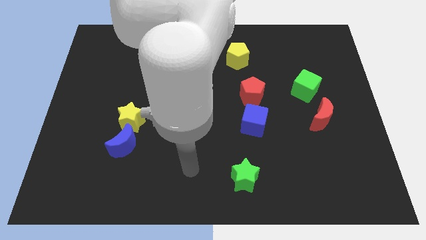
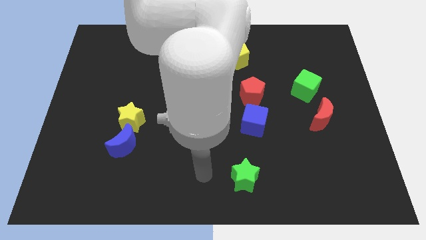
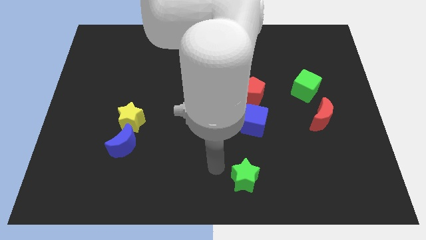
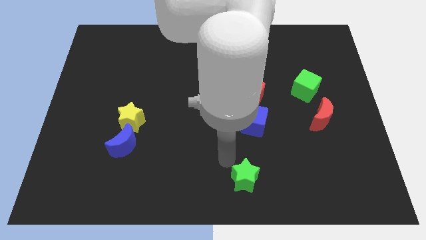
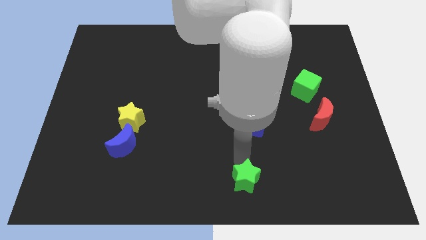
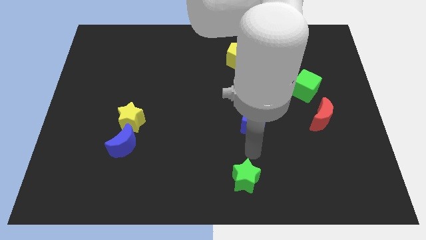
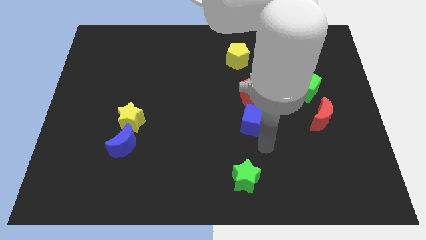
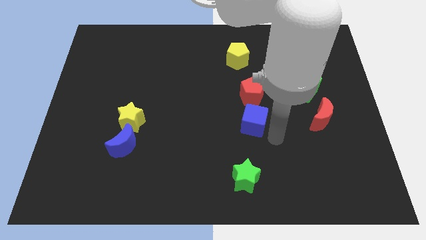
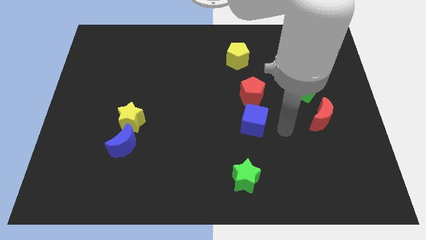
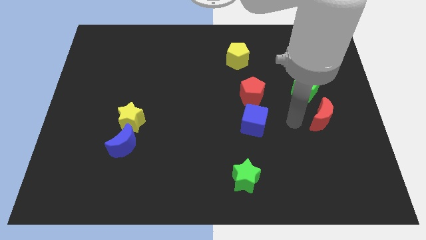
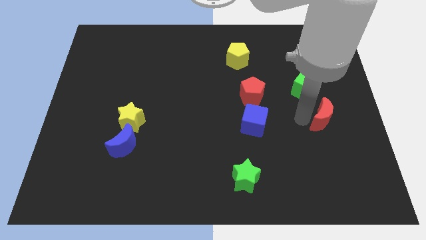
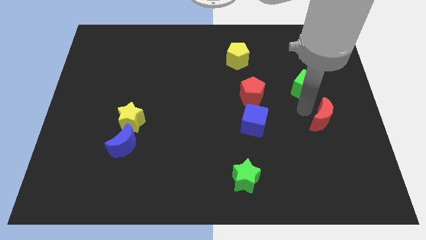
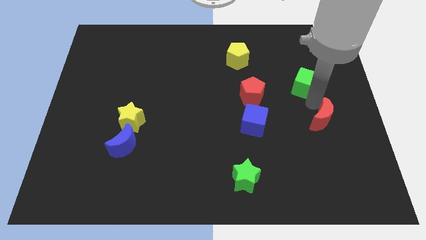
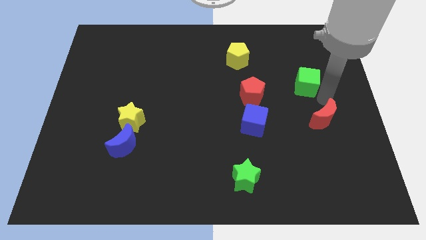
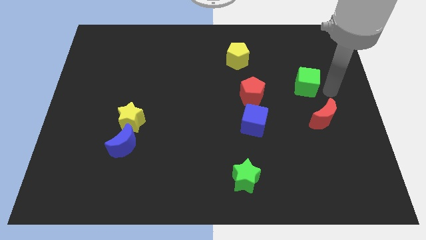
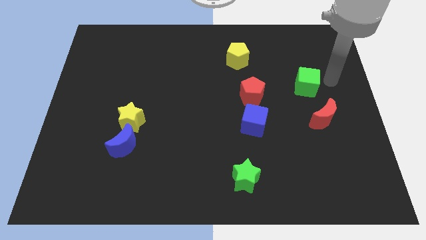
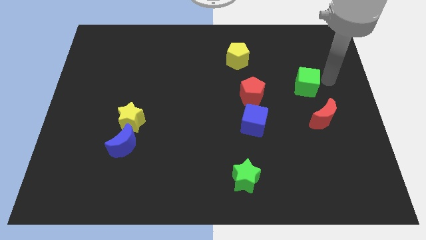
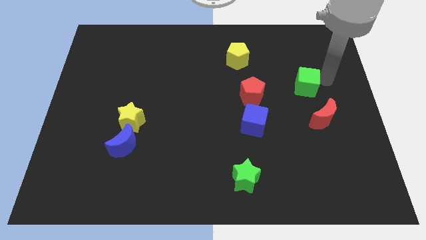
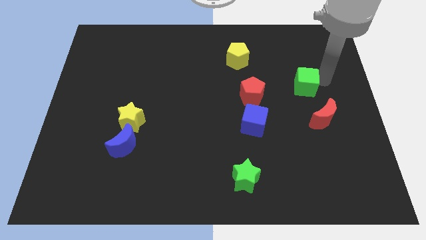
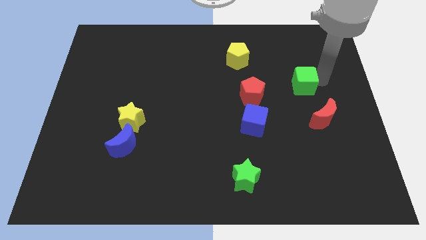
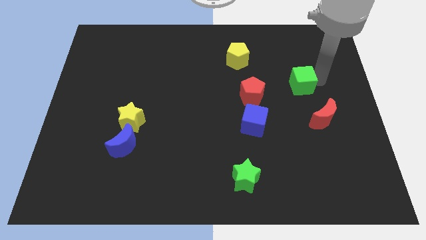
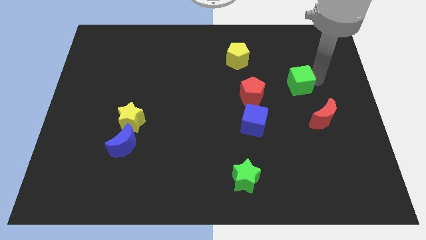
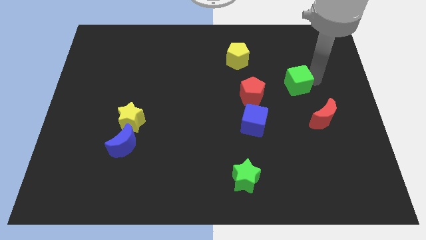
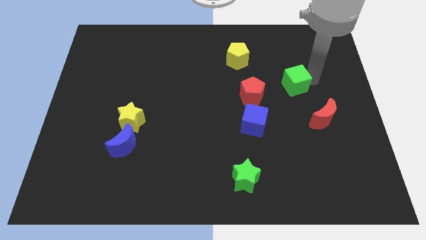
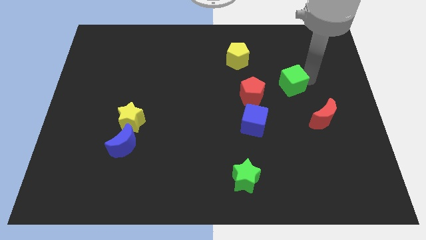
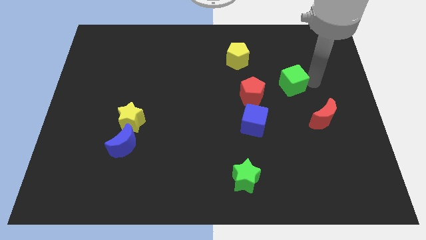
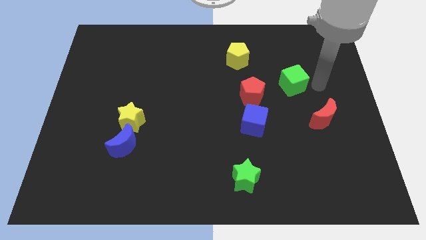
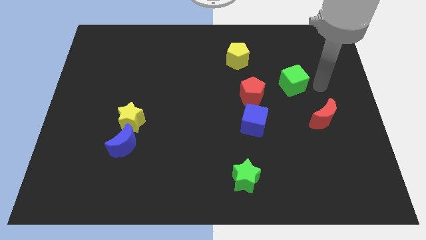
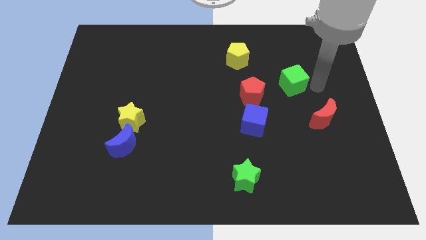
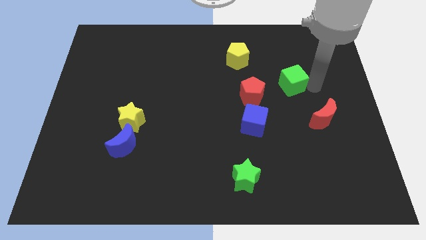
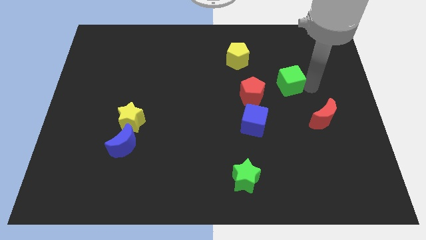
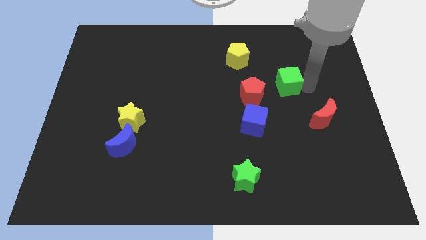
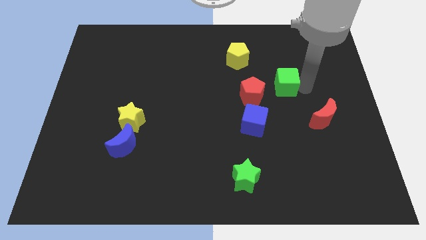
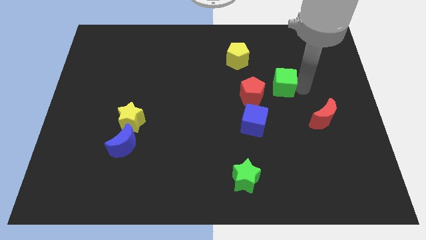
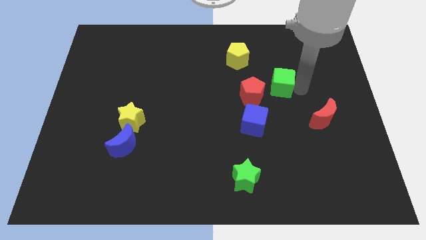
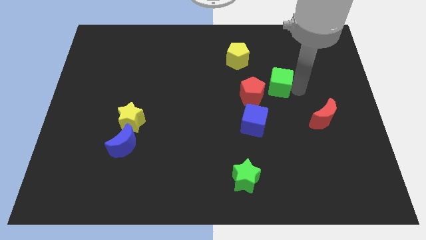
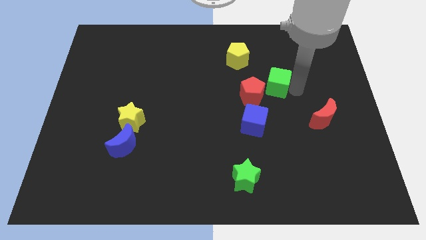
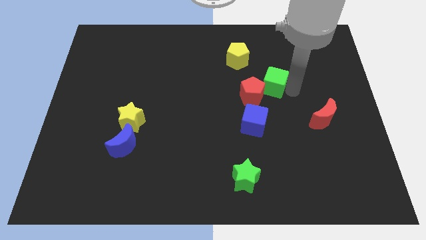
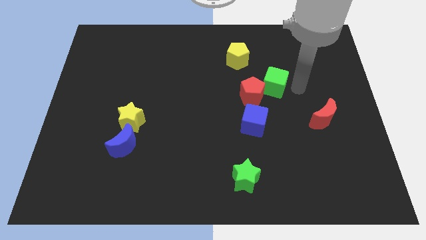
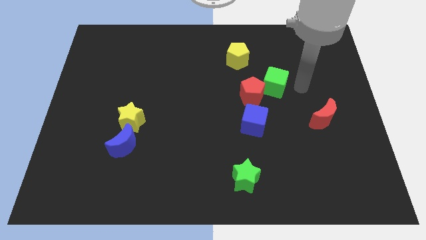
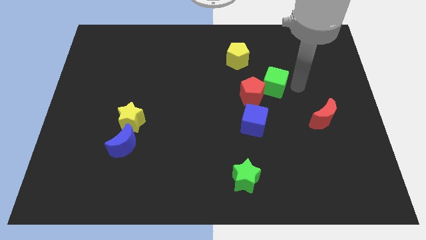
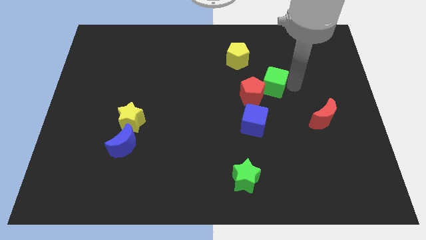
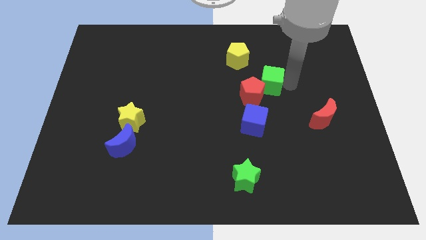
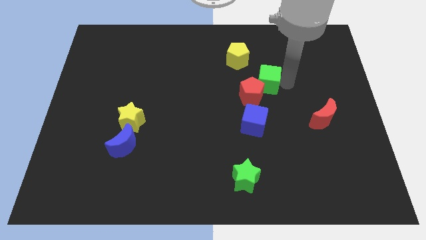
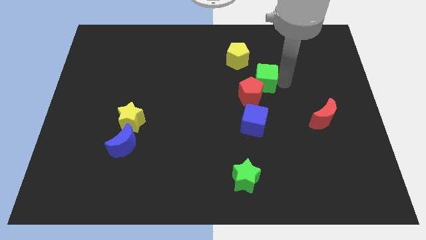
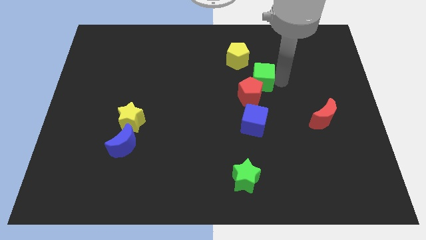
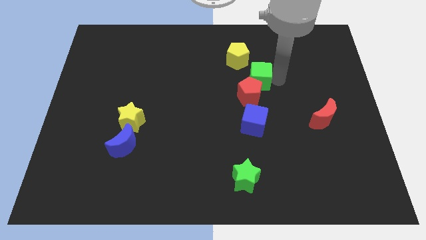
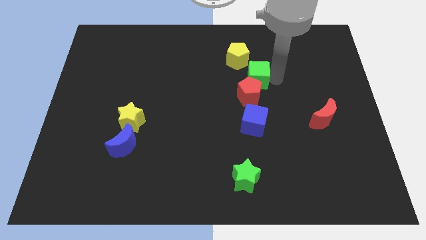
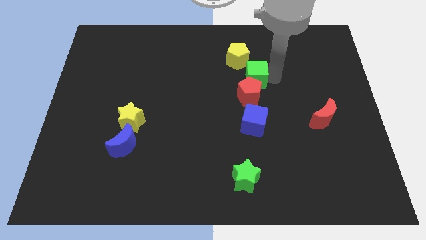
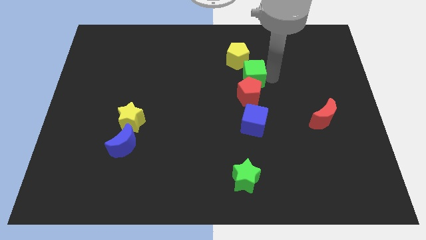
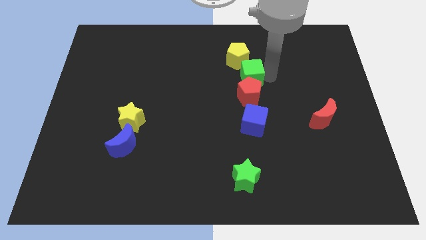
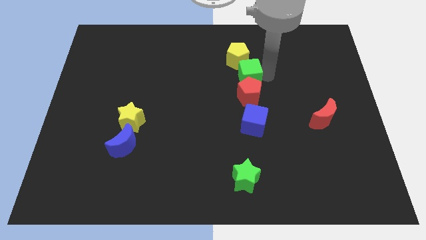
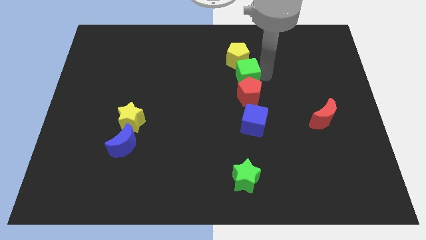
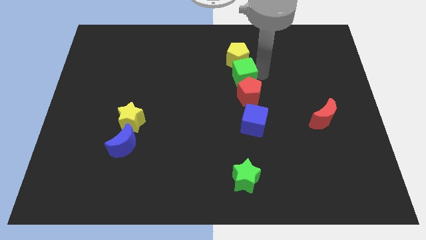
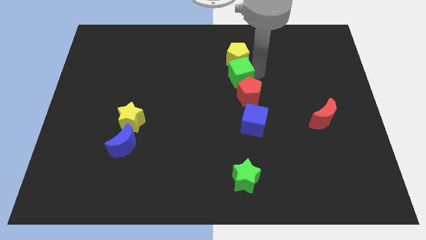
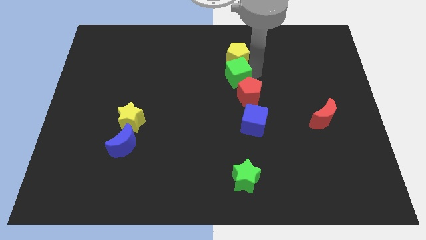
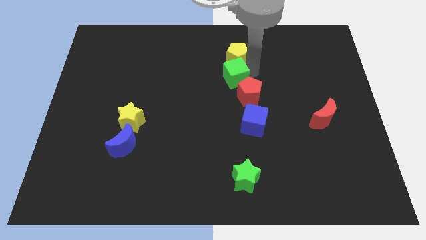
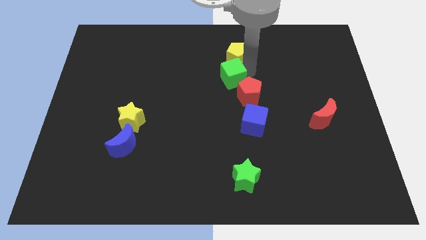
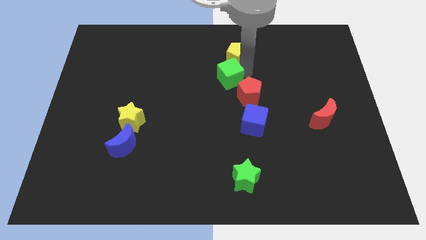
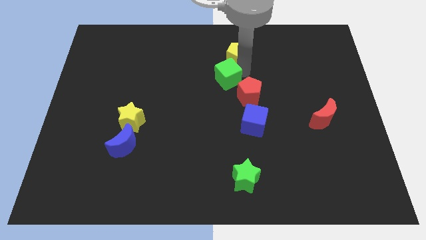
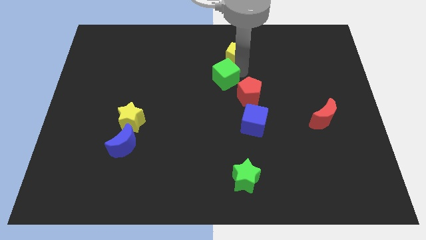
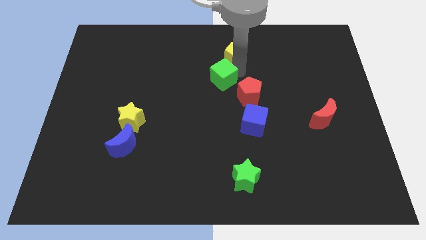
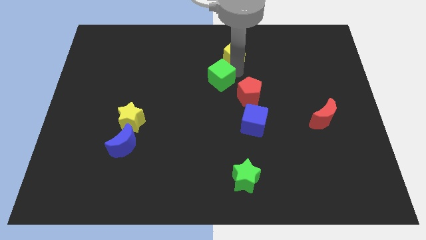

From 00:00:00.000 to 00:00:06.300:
push the green cube left

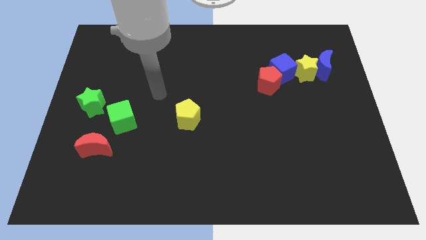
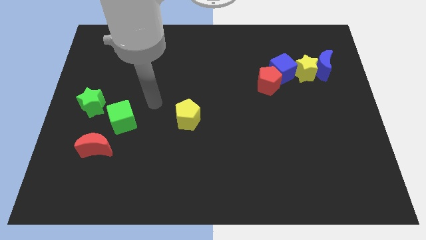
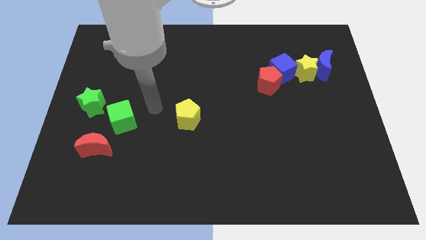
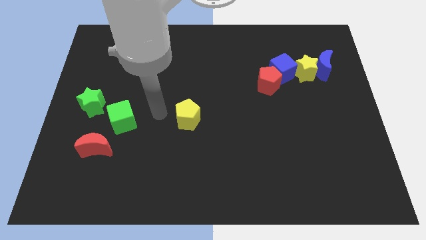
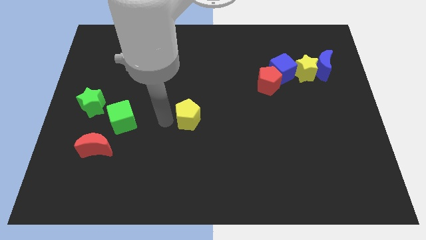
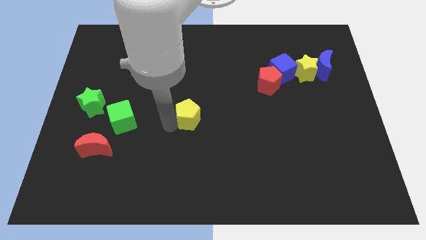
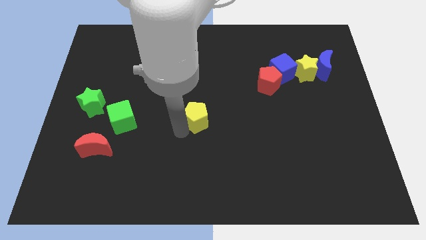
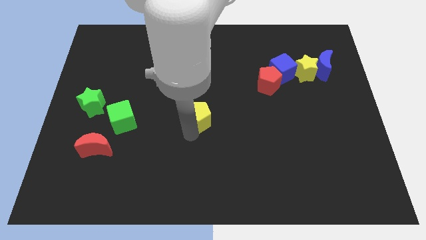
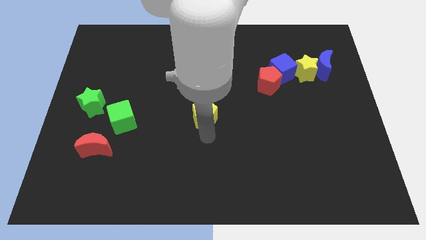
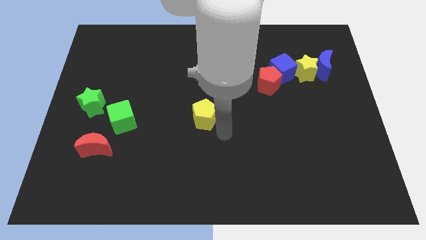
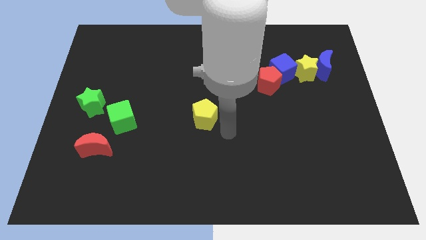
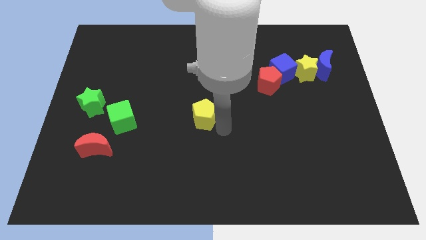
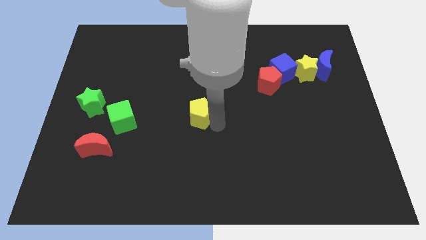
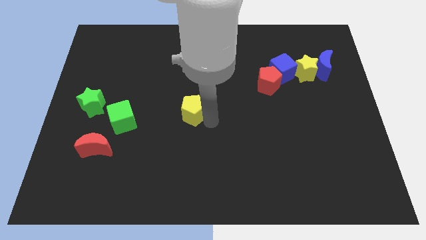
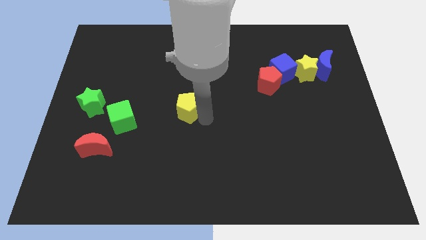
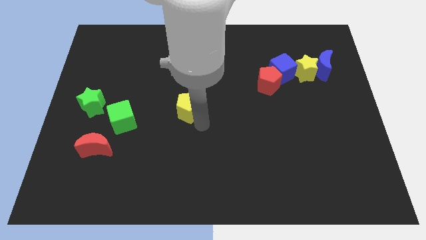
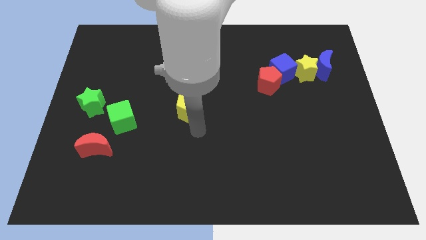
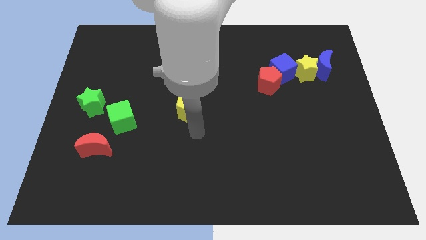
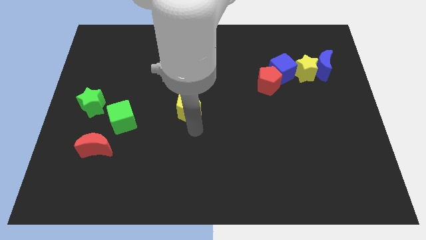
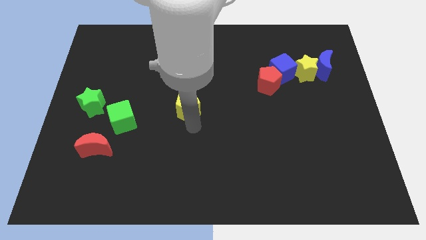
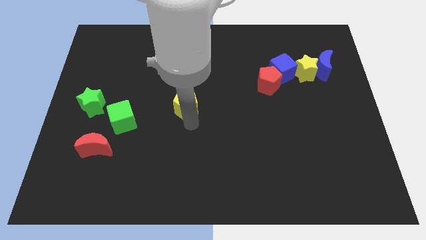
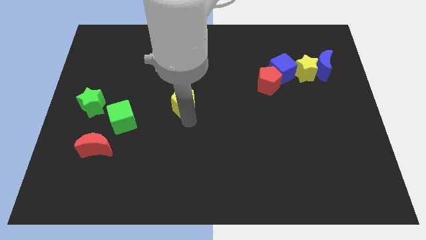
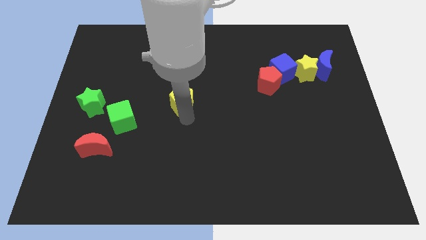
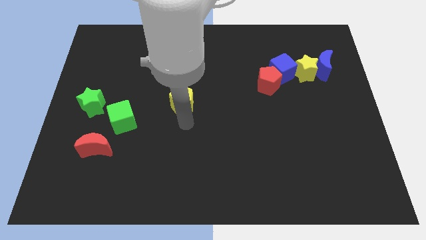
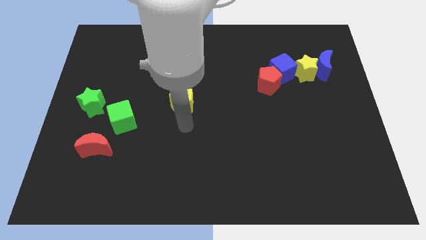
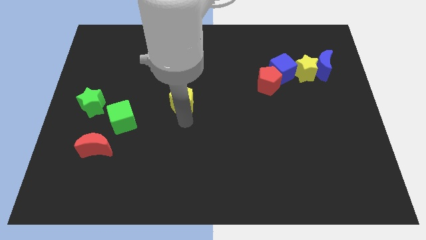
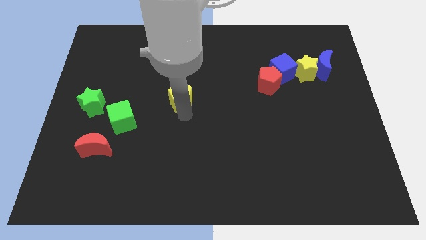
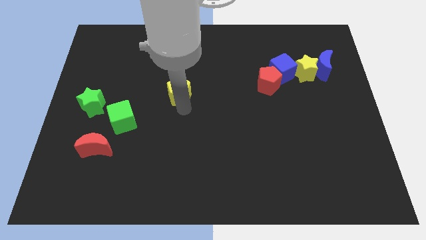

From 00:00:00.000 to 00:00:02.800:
slightly slide the yellow pentagon upwards
